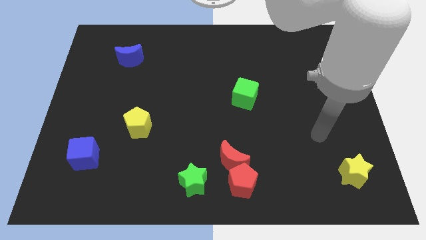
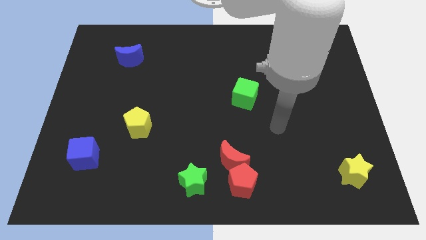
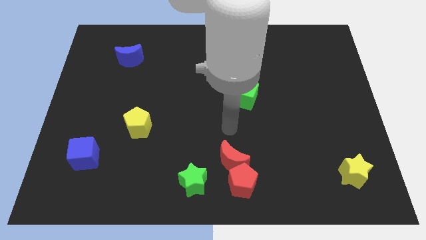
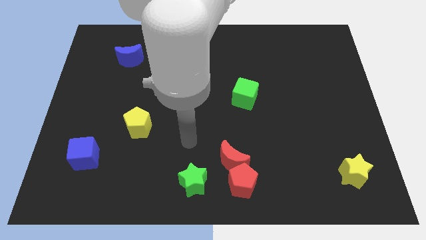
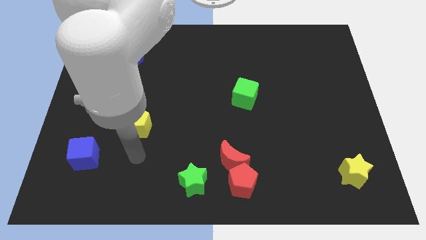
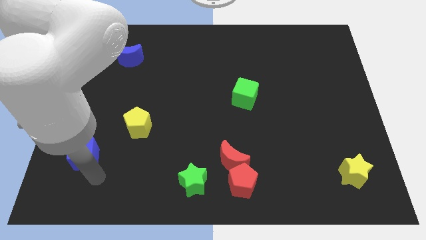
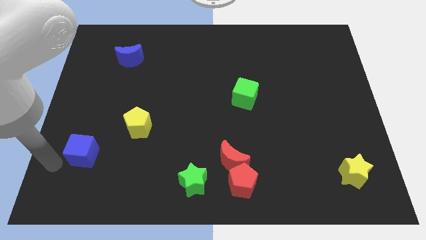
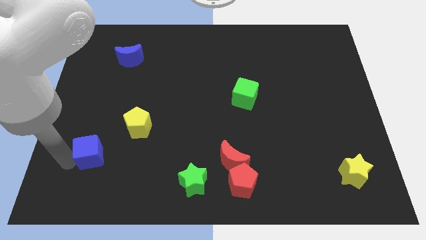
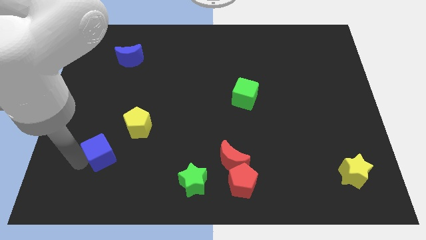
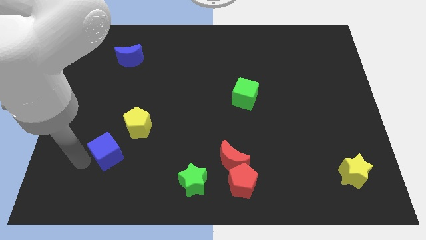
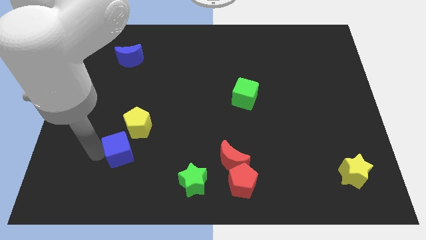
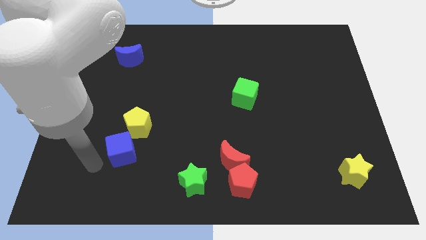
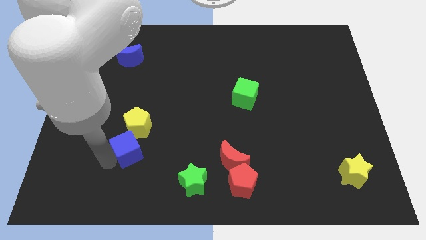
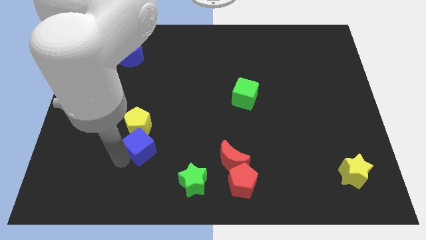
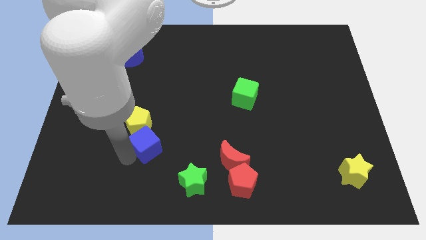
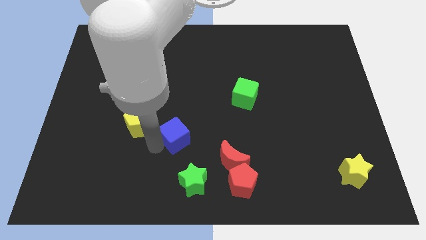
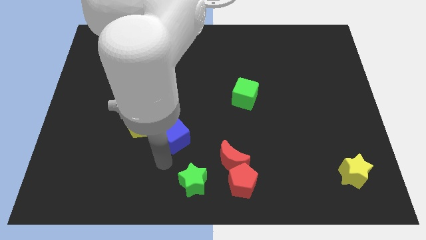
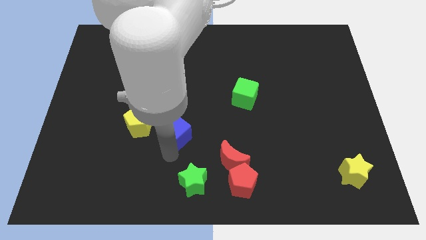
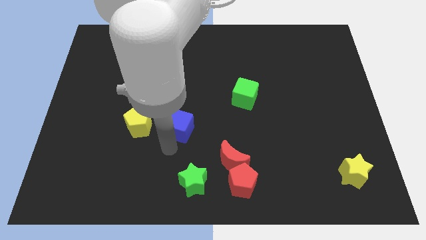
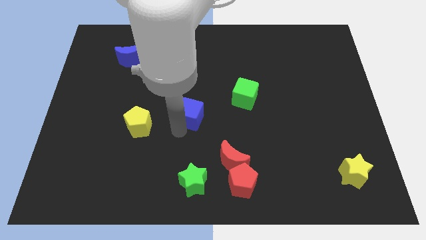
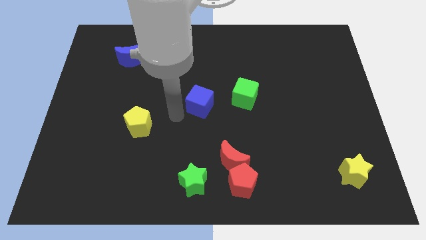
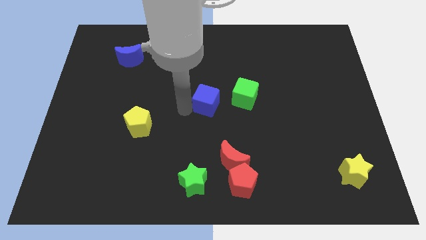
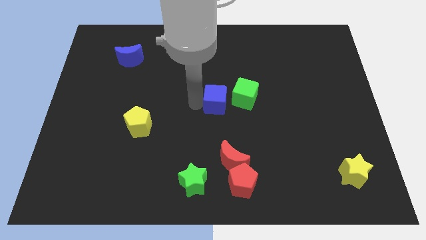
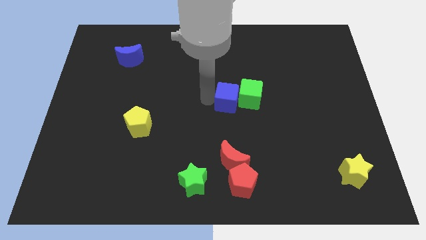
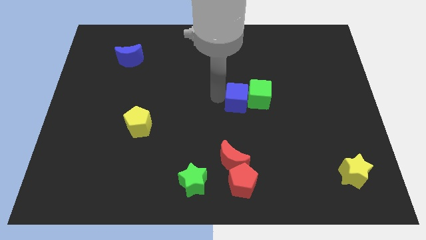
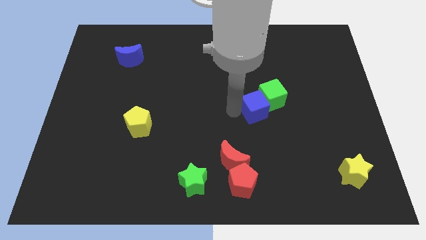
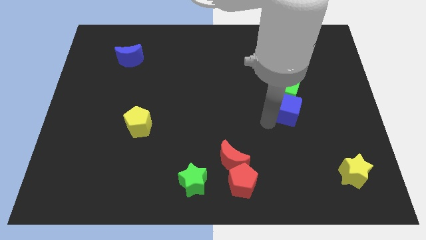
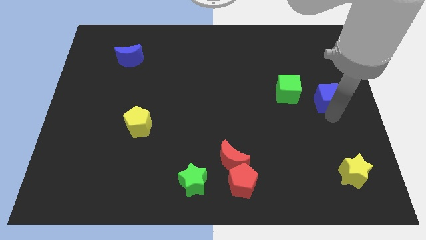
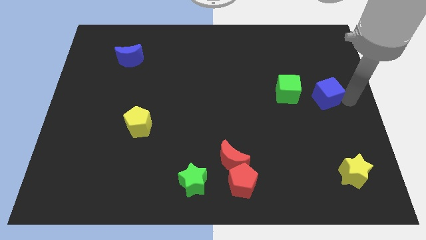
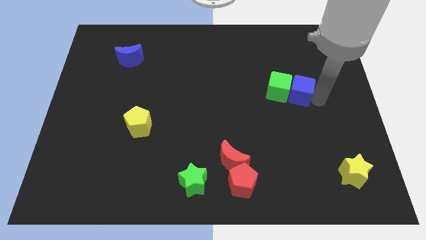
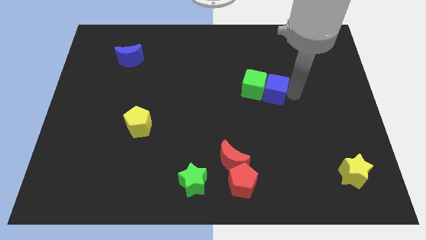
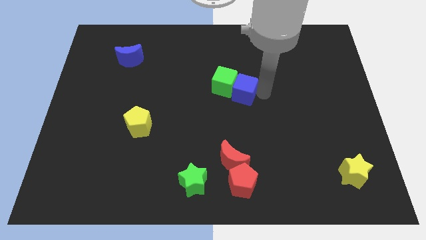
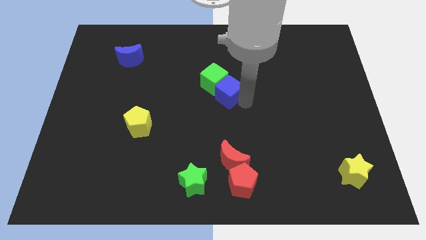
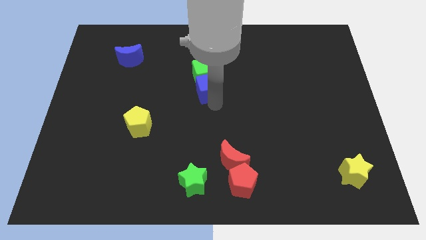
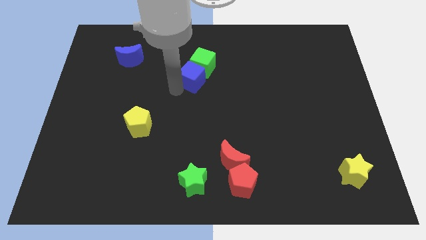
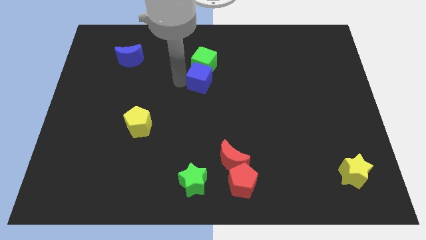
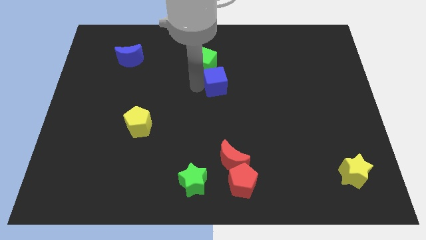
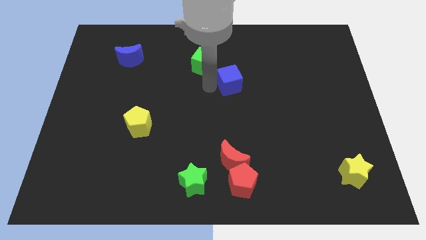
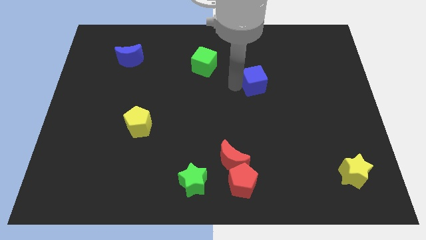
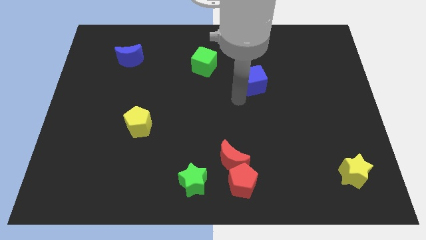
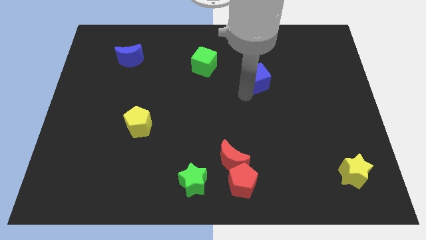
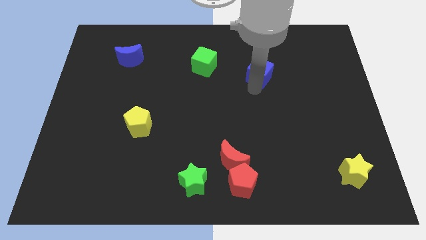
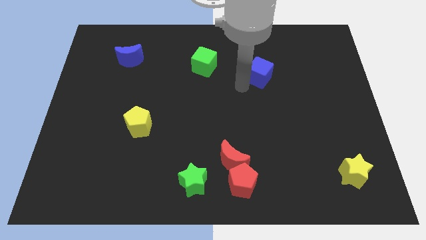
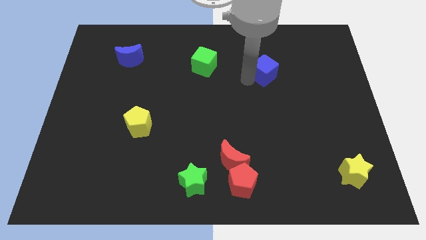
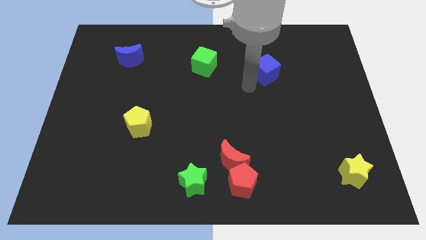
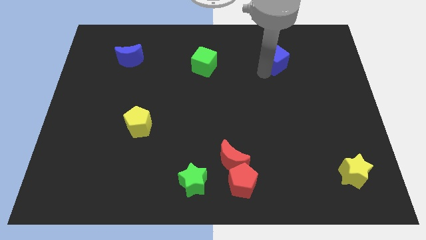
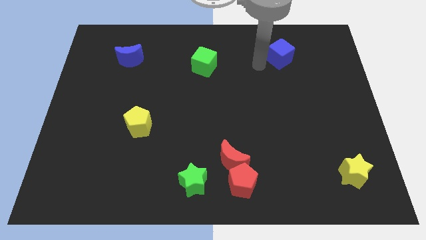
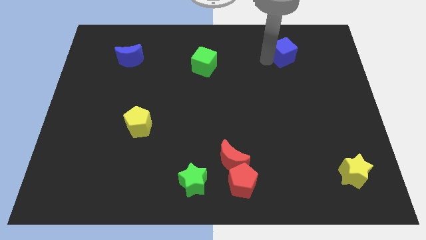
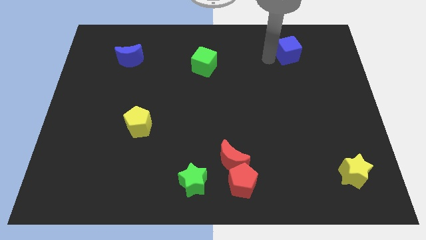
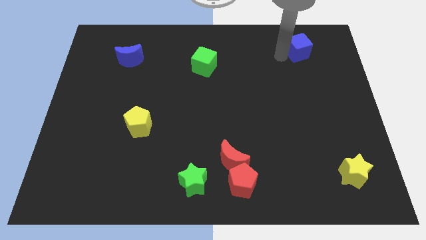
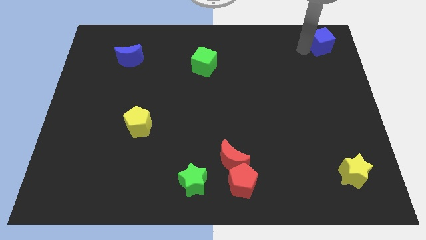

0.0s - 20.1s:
push the blue cube to the top right
